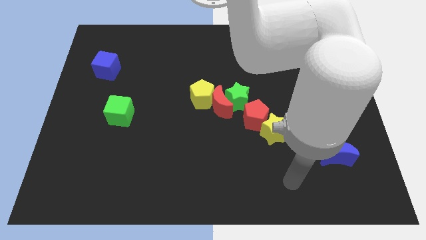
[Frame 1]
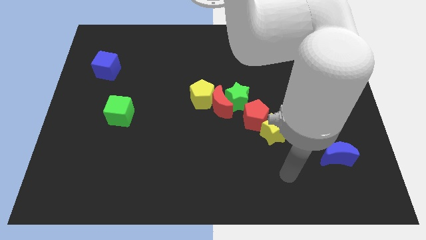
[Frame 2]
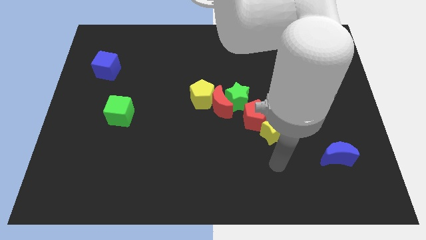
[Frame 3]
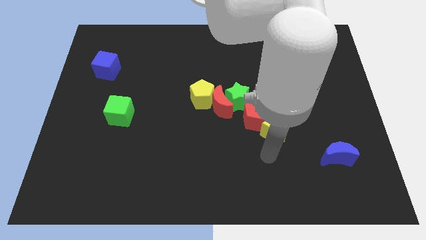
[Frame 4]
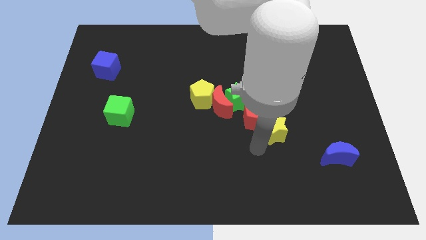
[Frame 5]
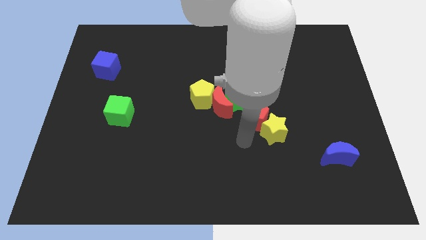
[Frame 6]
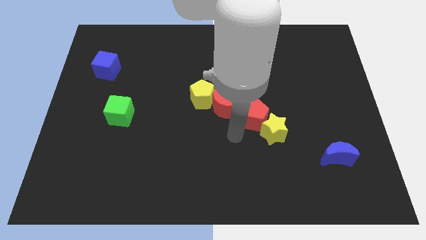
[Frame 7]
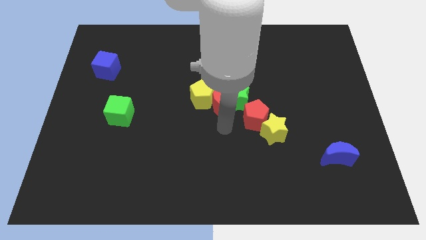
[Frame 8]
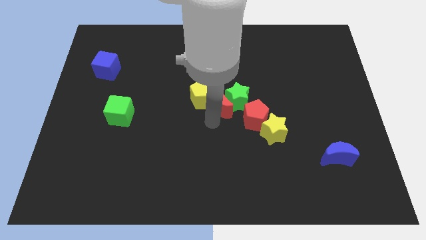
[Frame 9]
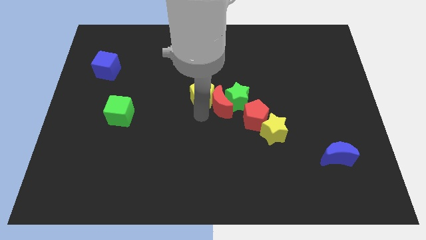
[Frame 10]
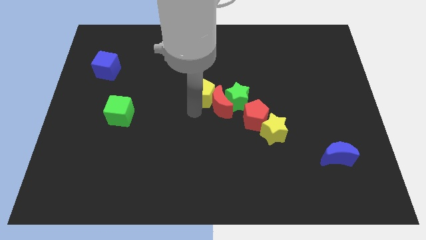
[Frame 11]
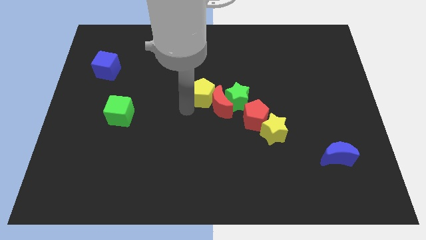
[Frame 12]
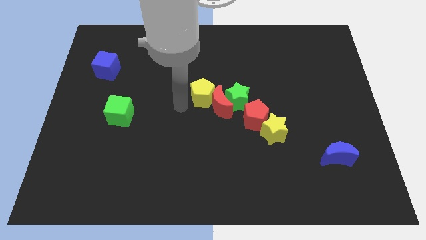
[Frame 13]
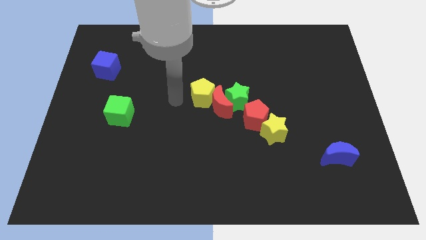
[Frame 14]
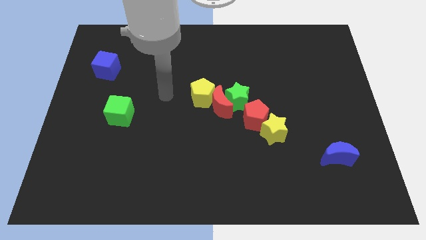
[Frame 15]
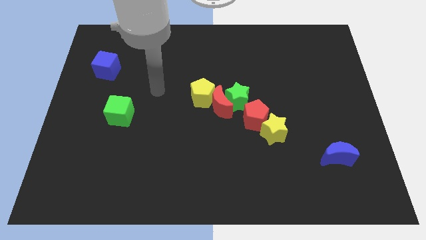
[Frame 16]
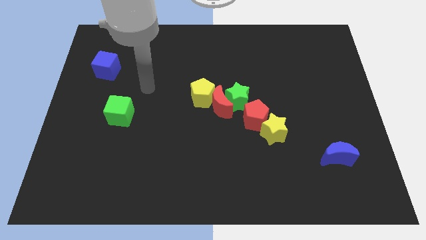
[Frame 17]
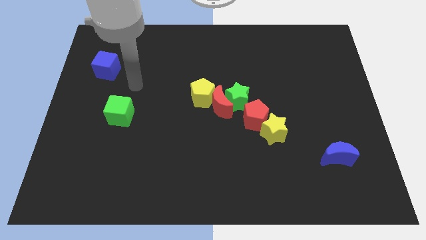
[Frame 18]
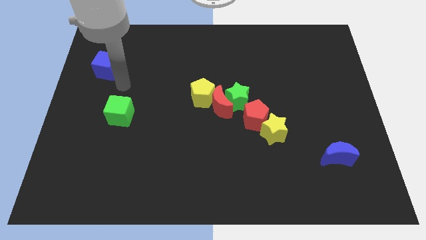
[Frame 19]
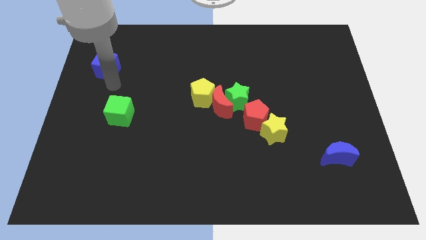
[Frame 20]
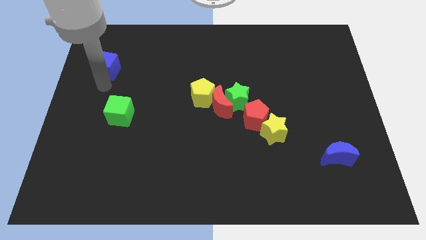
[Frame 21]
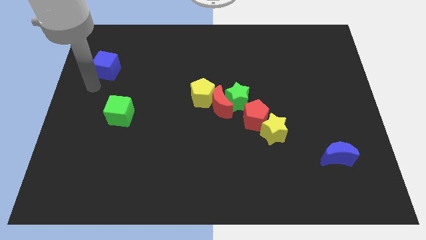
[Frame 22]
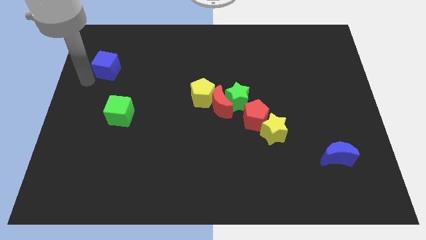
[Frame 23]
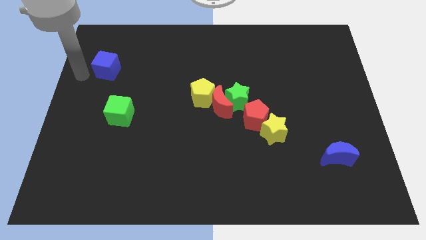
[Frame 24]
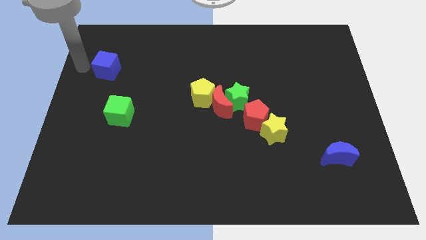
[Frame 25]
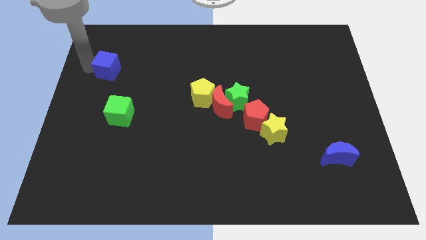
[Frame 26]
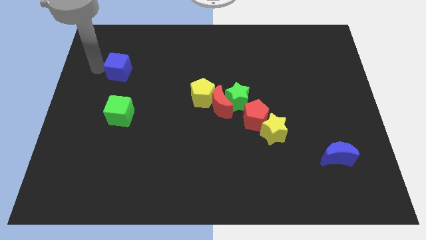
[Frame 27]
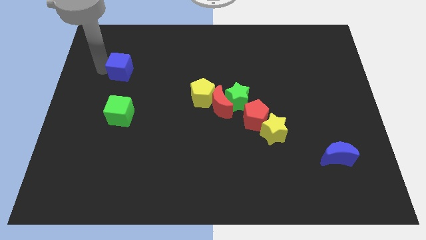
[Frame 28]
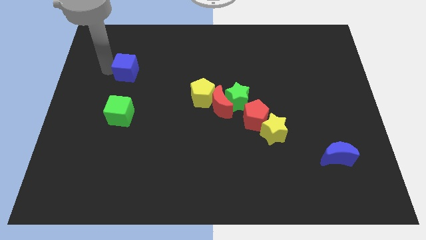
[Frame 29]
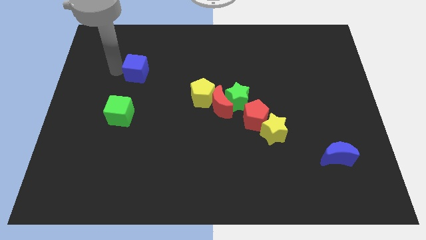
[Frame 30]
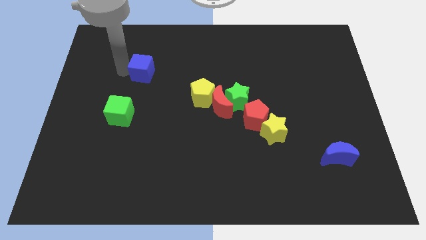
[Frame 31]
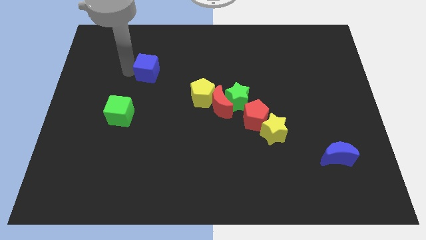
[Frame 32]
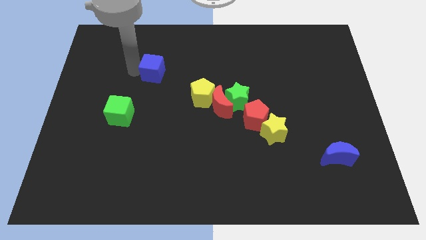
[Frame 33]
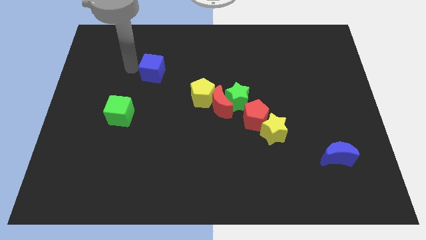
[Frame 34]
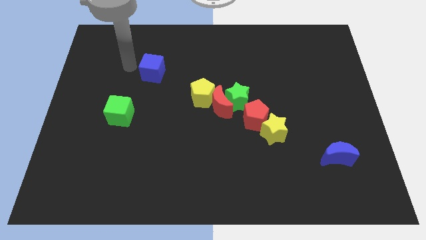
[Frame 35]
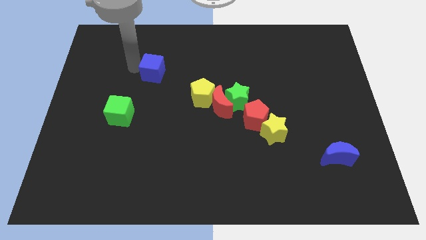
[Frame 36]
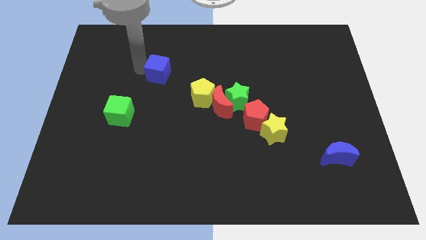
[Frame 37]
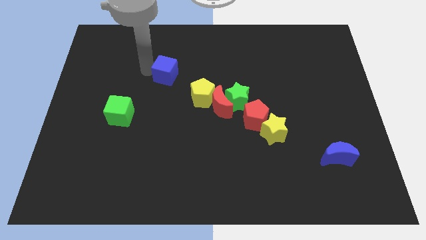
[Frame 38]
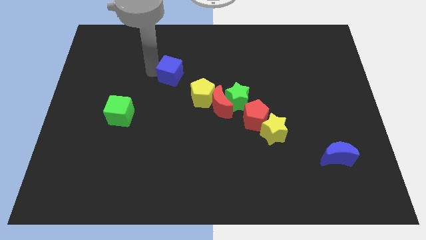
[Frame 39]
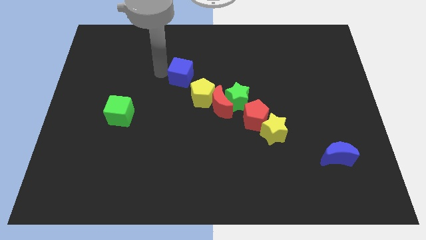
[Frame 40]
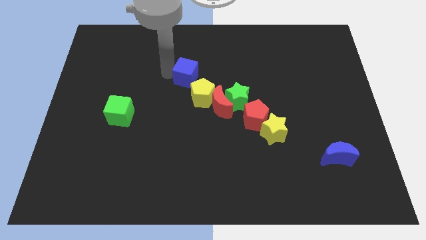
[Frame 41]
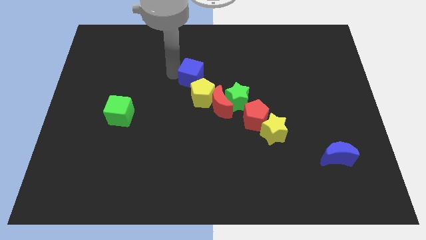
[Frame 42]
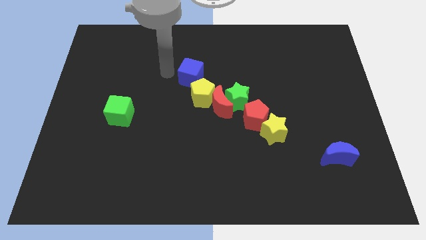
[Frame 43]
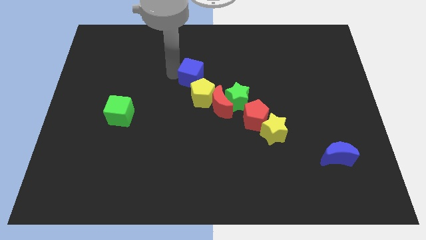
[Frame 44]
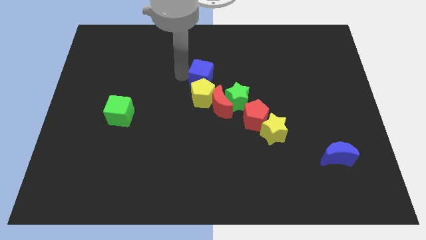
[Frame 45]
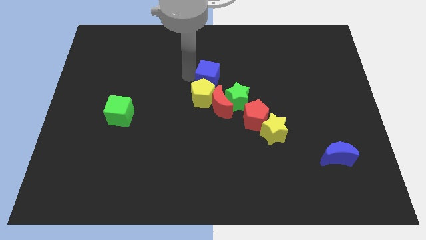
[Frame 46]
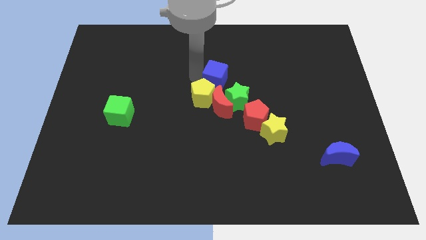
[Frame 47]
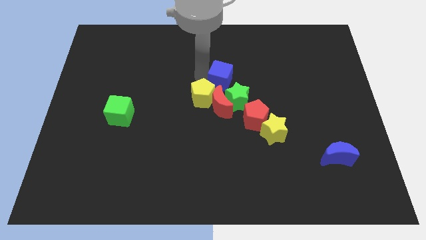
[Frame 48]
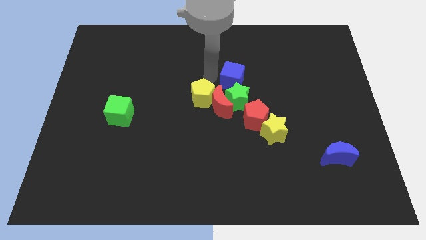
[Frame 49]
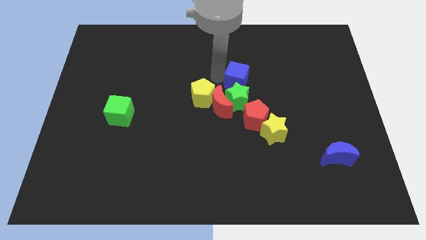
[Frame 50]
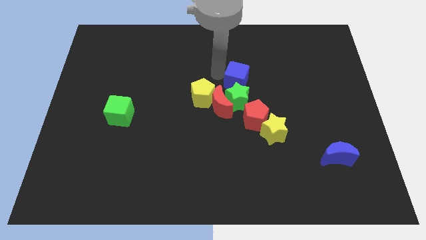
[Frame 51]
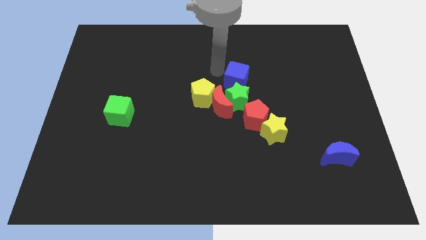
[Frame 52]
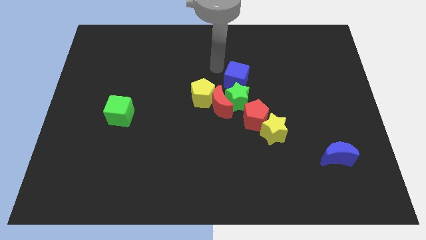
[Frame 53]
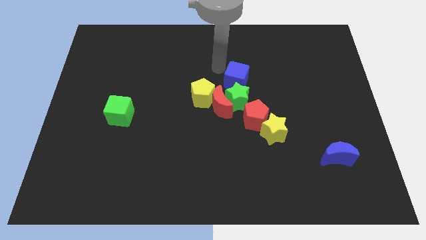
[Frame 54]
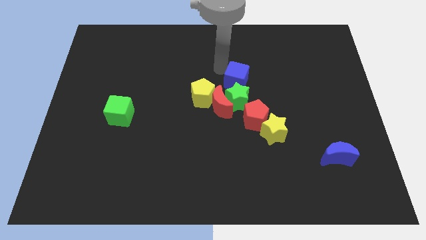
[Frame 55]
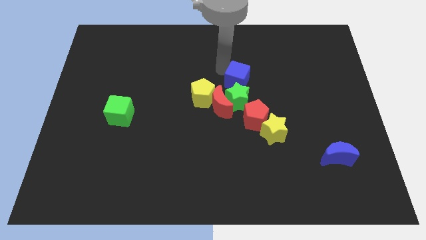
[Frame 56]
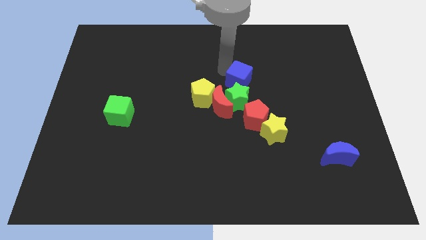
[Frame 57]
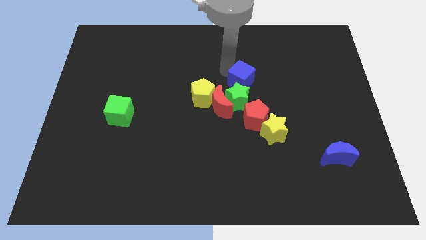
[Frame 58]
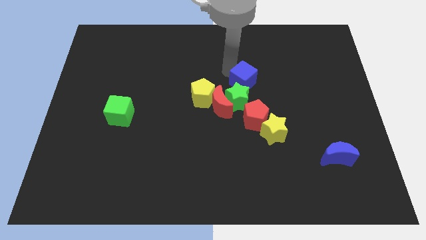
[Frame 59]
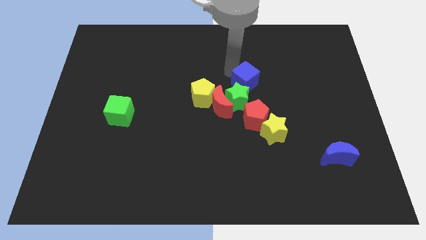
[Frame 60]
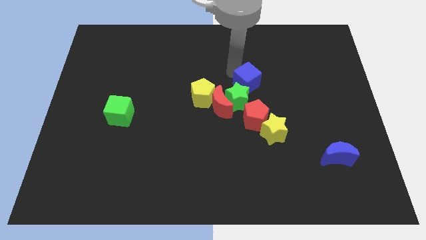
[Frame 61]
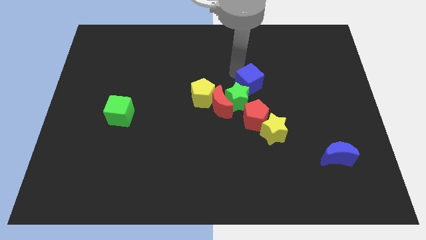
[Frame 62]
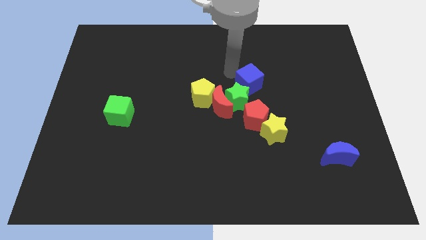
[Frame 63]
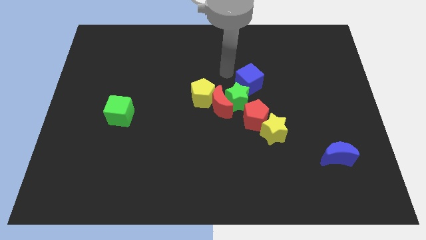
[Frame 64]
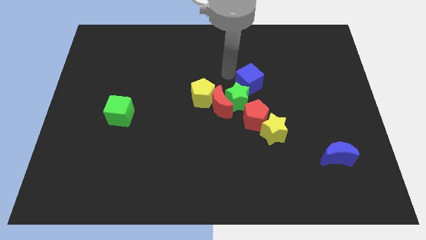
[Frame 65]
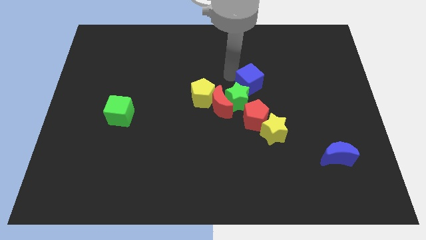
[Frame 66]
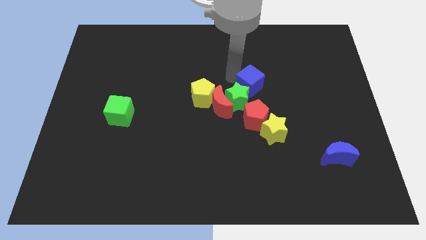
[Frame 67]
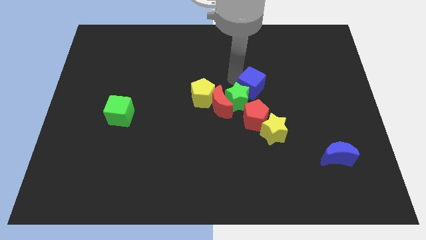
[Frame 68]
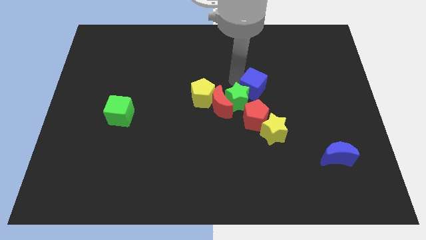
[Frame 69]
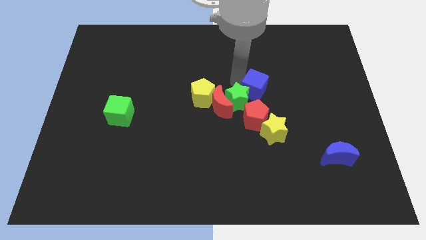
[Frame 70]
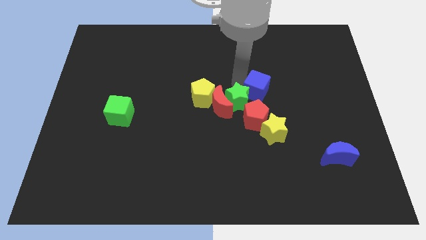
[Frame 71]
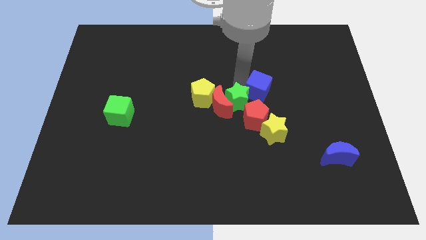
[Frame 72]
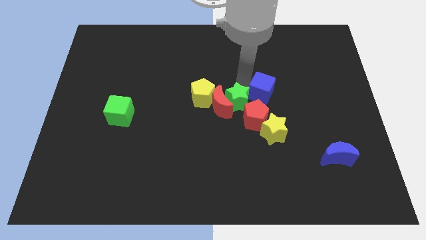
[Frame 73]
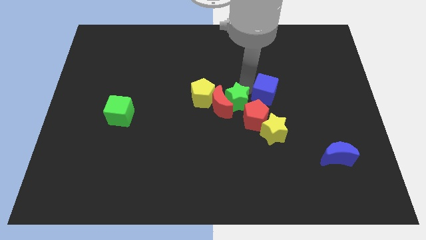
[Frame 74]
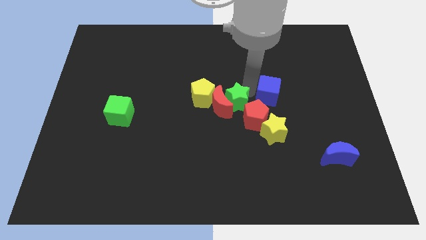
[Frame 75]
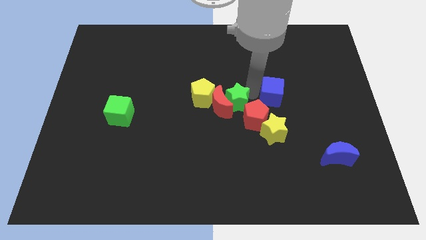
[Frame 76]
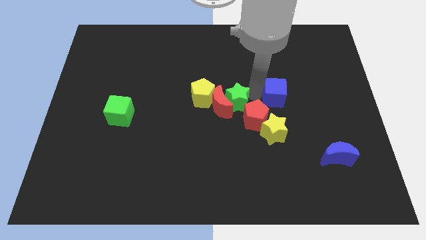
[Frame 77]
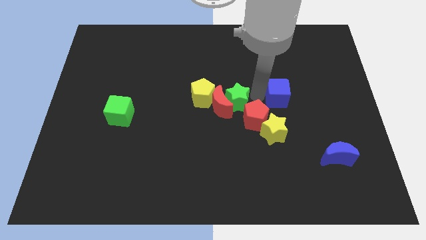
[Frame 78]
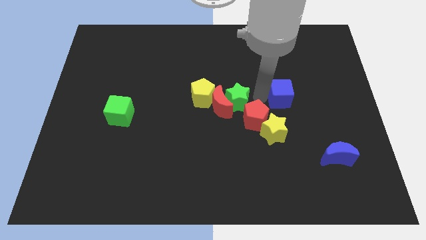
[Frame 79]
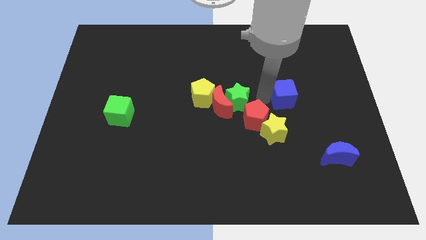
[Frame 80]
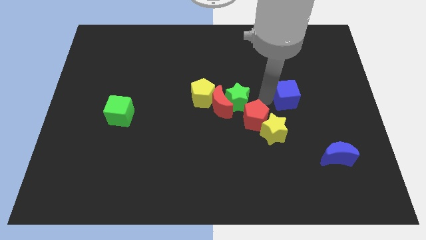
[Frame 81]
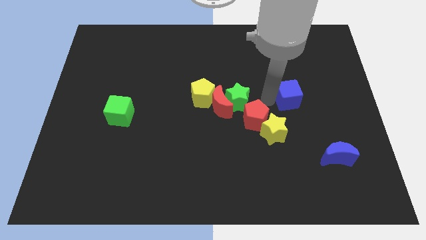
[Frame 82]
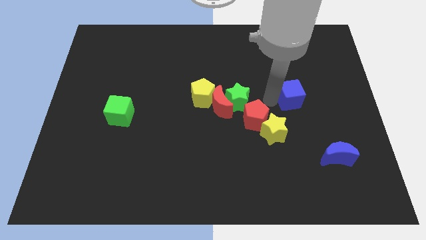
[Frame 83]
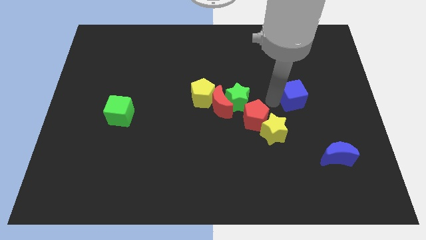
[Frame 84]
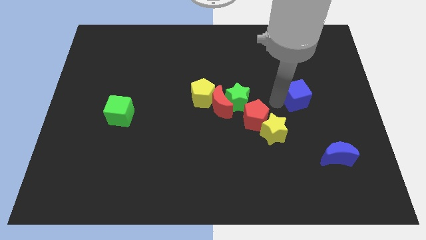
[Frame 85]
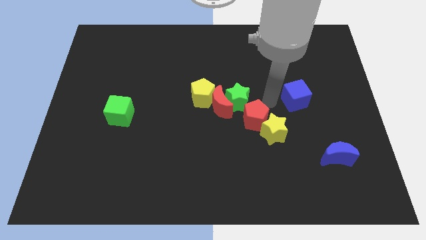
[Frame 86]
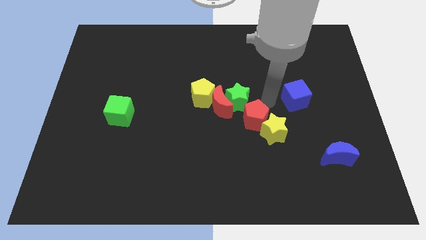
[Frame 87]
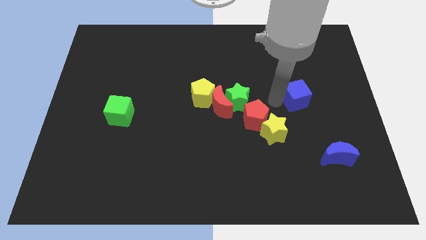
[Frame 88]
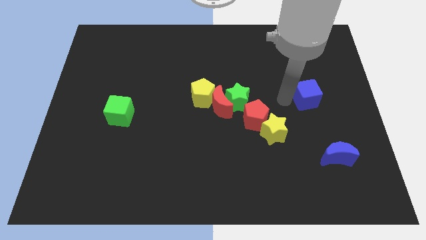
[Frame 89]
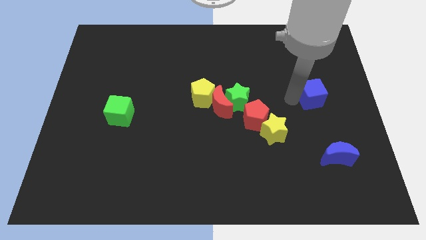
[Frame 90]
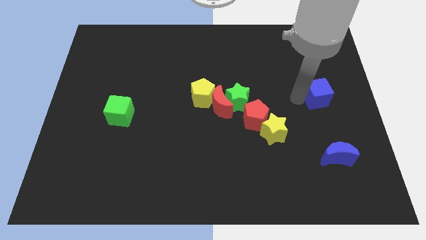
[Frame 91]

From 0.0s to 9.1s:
put the blue cube to the right side
